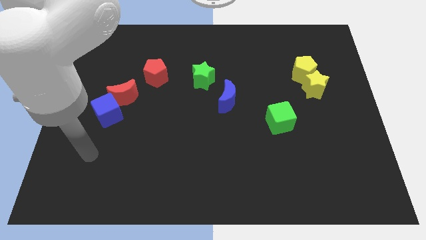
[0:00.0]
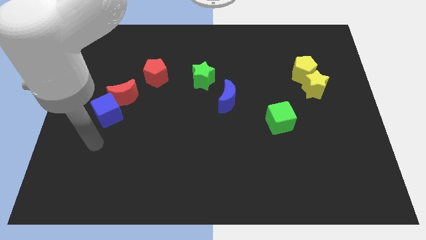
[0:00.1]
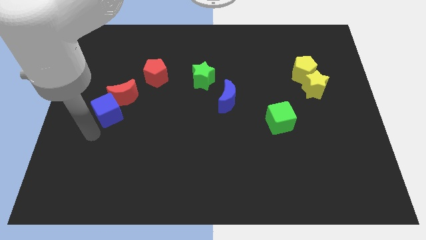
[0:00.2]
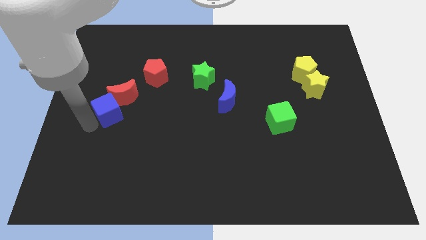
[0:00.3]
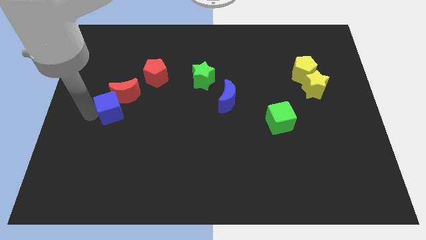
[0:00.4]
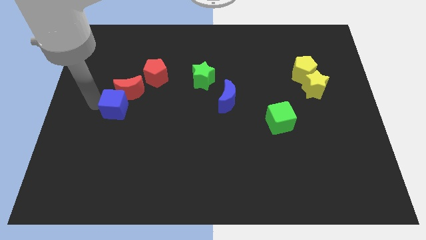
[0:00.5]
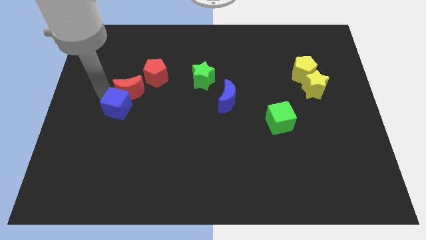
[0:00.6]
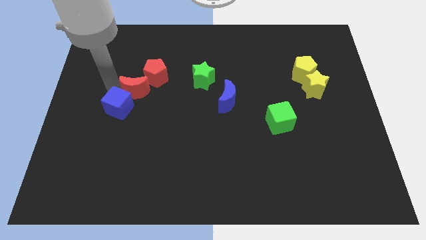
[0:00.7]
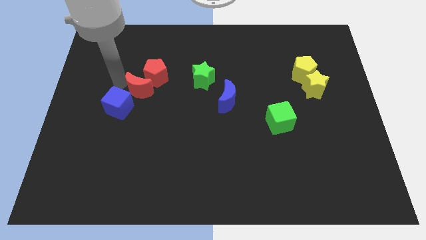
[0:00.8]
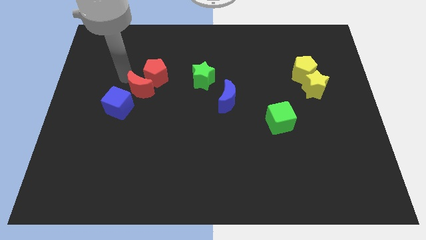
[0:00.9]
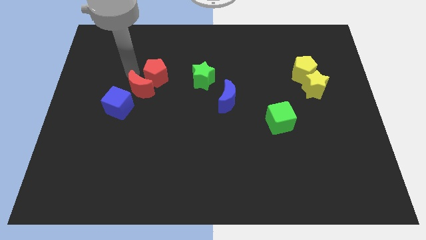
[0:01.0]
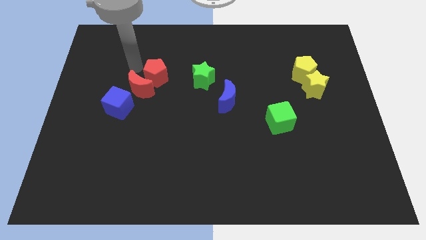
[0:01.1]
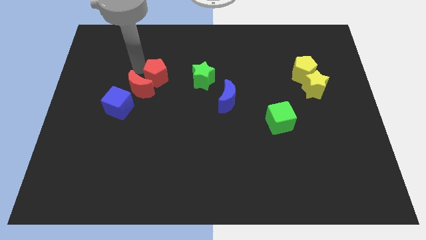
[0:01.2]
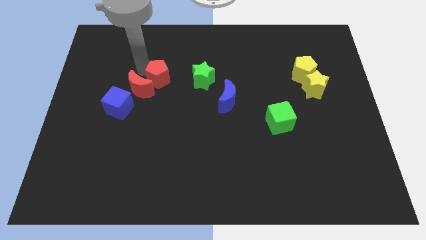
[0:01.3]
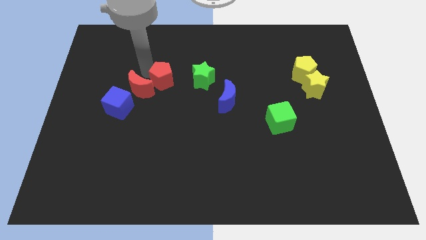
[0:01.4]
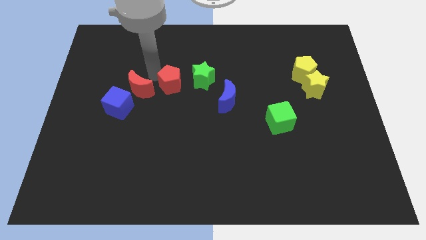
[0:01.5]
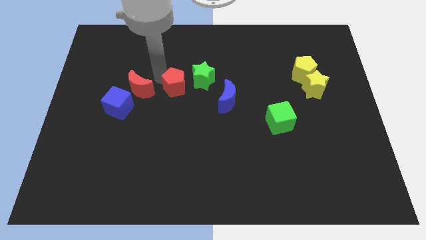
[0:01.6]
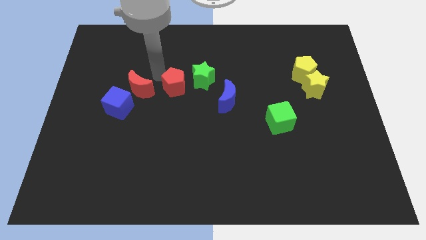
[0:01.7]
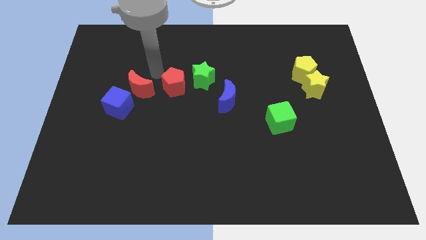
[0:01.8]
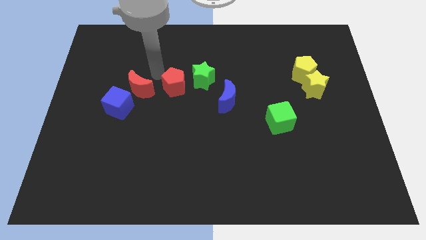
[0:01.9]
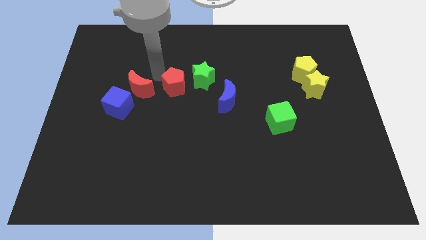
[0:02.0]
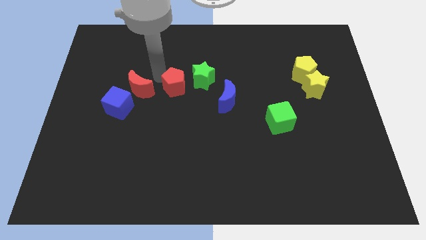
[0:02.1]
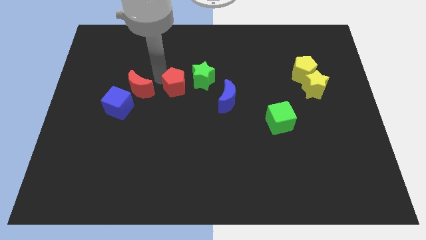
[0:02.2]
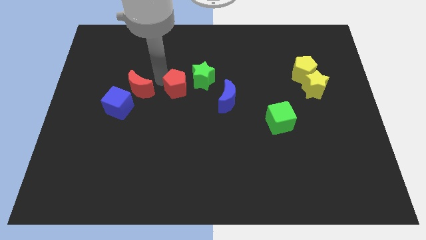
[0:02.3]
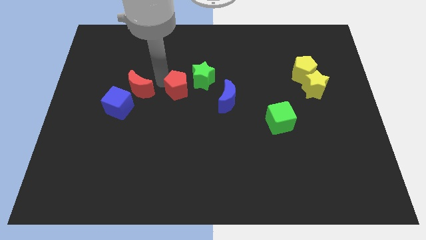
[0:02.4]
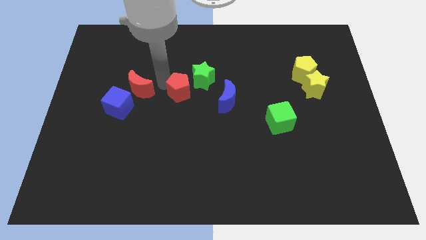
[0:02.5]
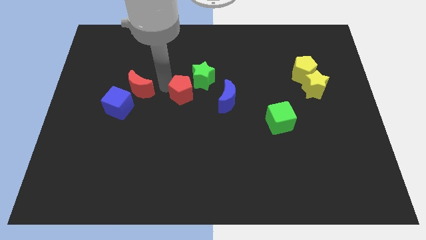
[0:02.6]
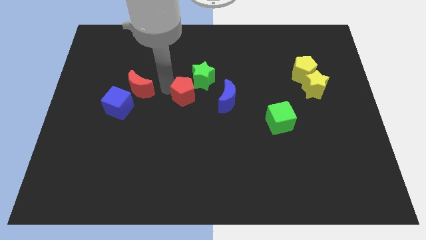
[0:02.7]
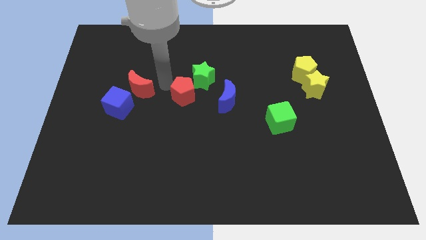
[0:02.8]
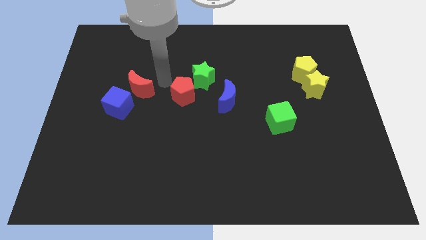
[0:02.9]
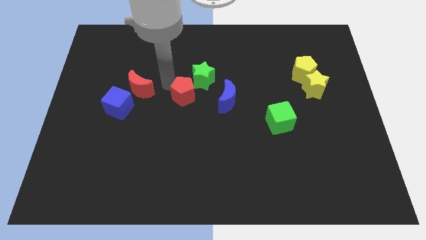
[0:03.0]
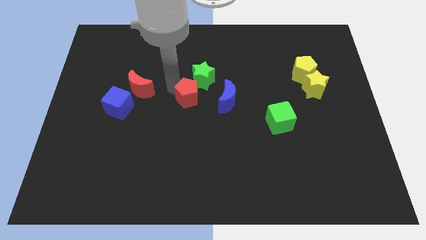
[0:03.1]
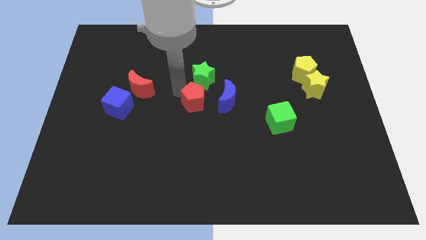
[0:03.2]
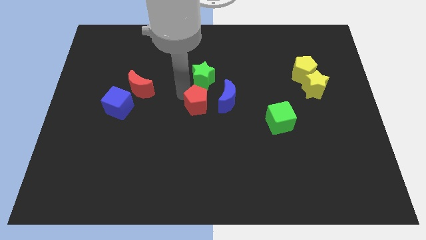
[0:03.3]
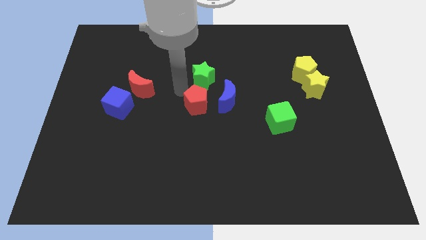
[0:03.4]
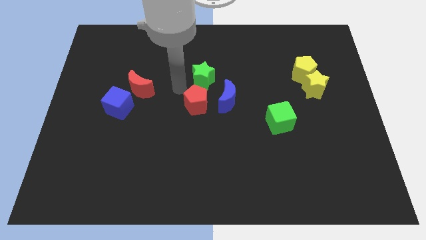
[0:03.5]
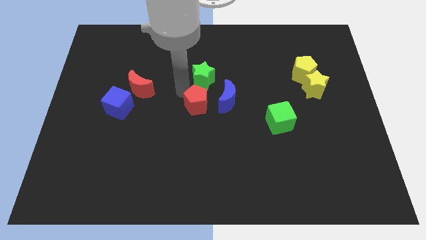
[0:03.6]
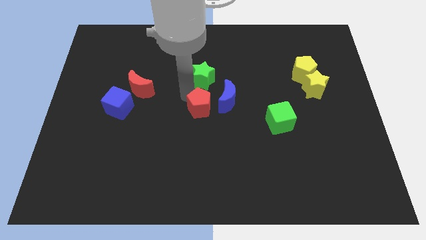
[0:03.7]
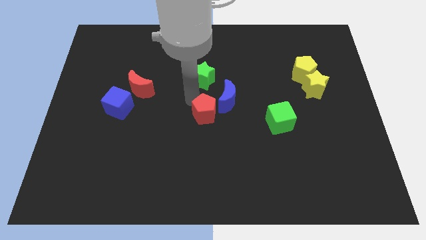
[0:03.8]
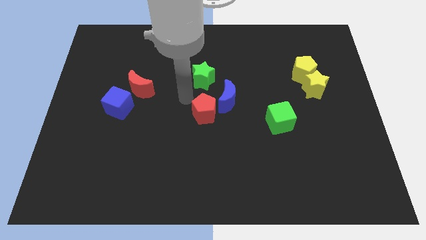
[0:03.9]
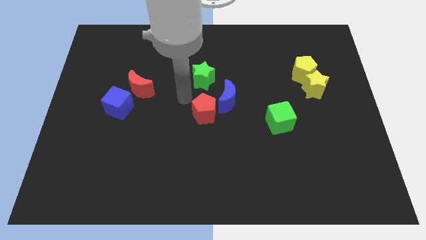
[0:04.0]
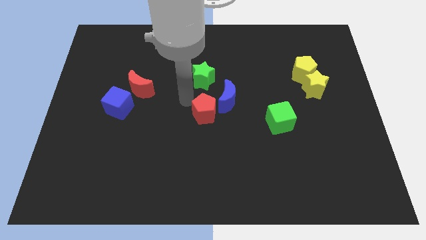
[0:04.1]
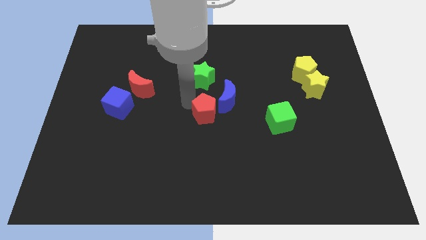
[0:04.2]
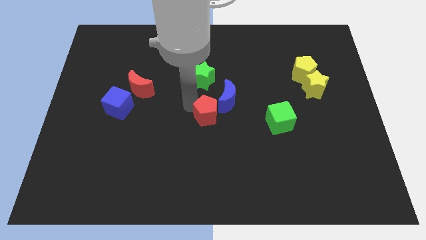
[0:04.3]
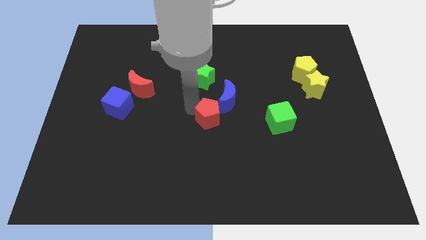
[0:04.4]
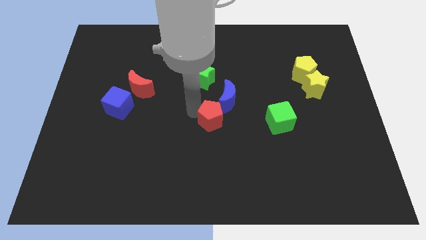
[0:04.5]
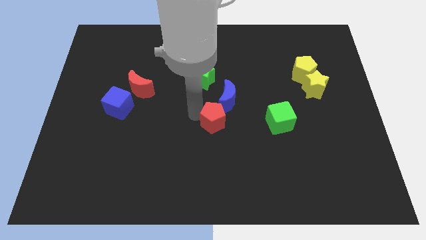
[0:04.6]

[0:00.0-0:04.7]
push the red pentagon diagonally downwards and to the right

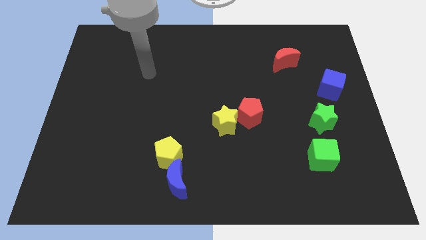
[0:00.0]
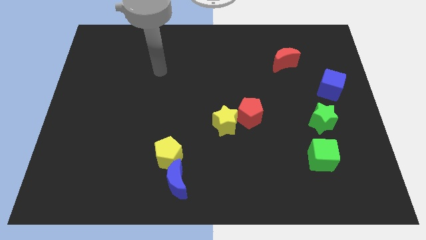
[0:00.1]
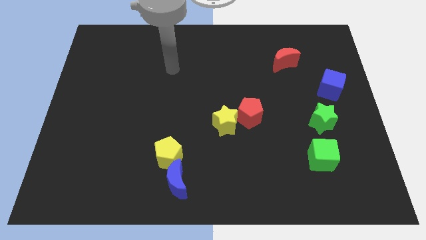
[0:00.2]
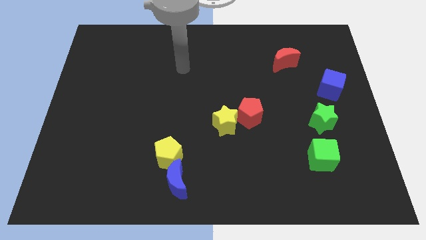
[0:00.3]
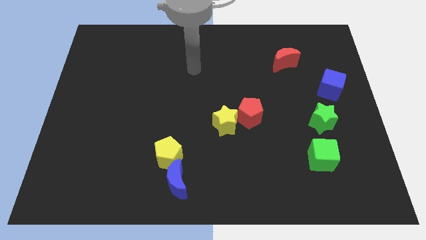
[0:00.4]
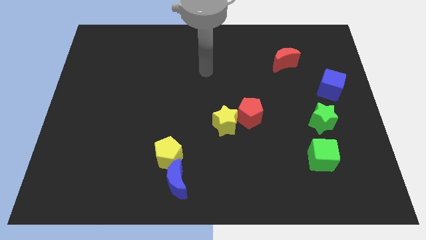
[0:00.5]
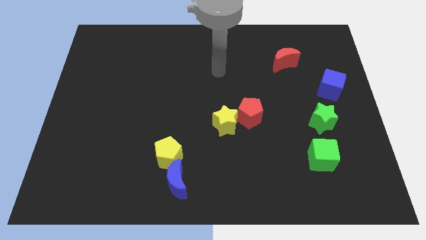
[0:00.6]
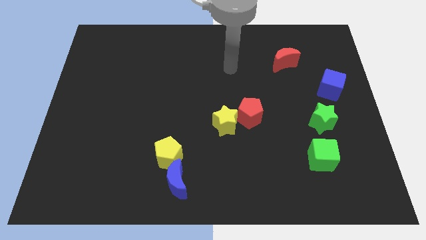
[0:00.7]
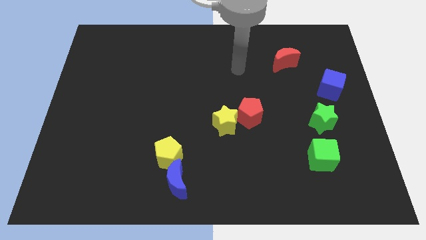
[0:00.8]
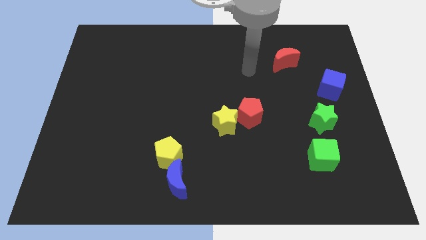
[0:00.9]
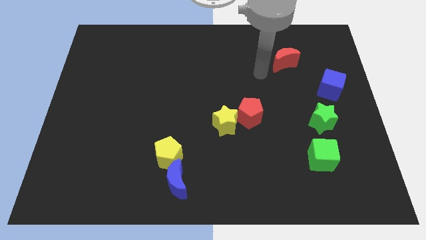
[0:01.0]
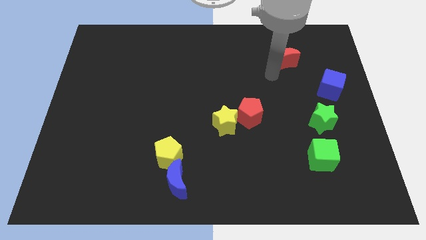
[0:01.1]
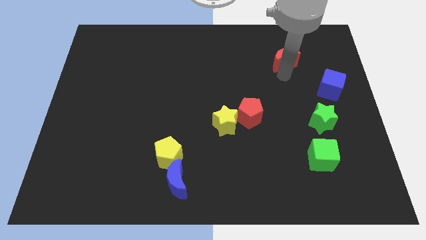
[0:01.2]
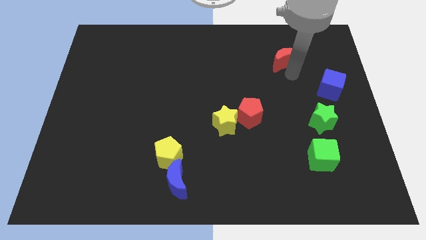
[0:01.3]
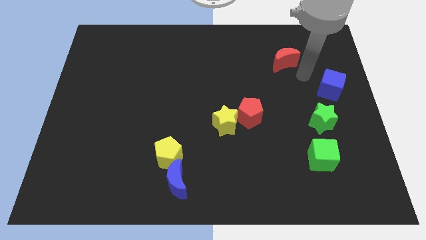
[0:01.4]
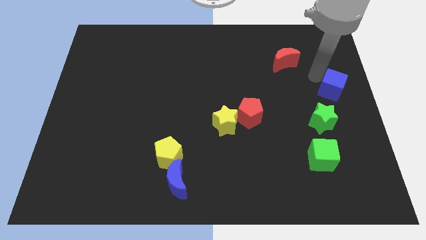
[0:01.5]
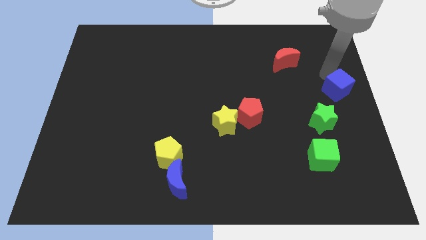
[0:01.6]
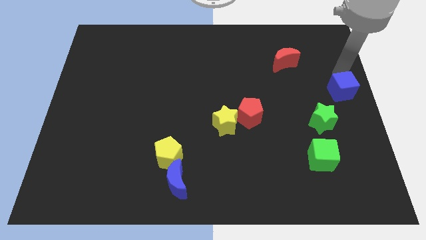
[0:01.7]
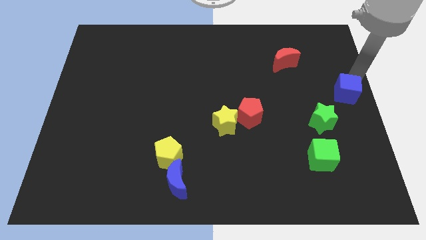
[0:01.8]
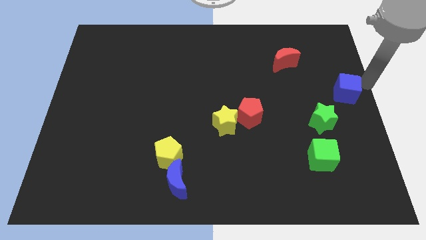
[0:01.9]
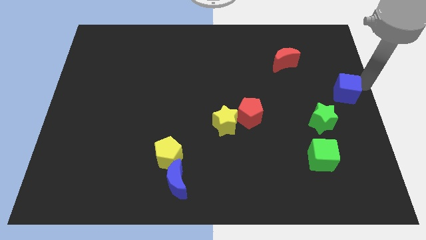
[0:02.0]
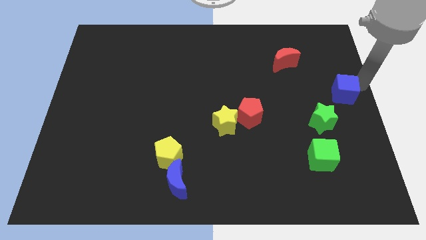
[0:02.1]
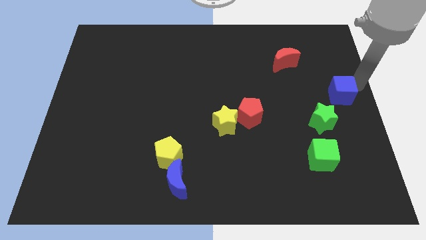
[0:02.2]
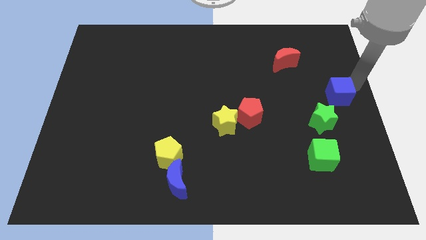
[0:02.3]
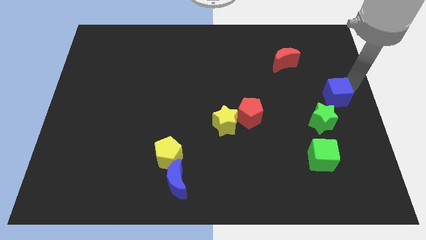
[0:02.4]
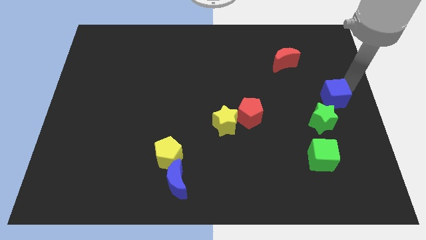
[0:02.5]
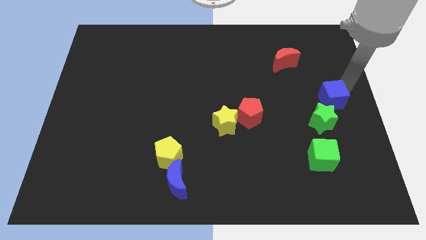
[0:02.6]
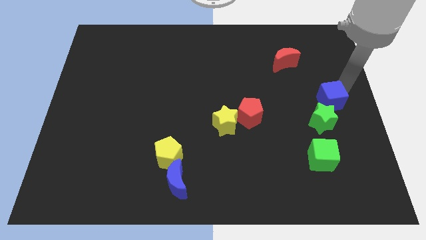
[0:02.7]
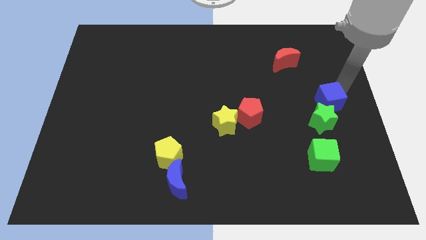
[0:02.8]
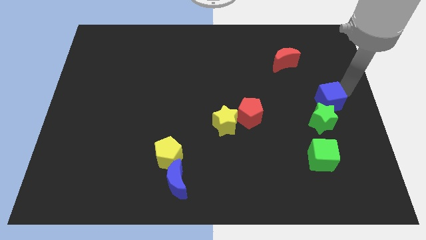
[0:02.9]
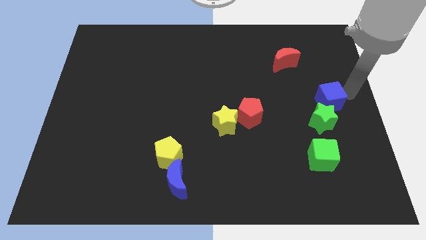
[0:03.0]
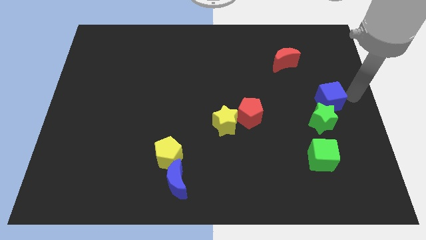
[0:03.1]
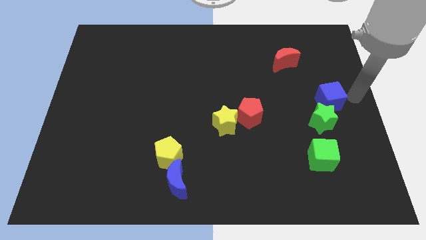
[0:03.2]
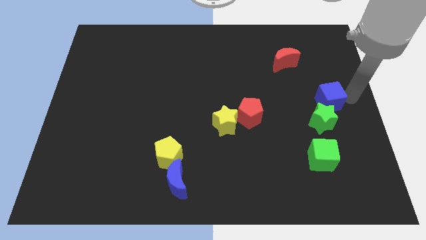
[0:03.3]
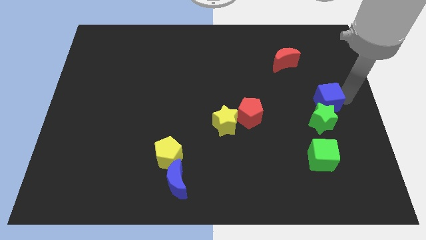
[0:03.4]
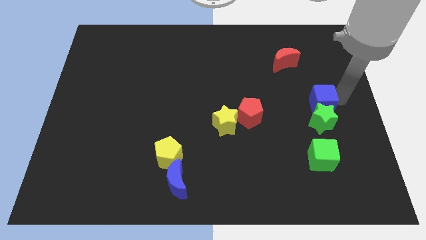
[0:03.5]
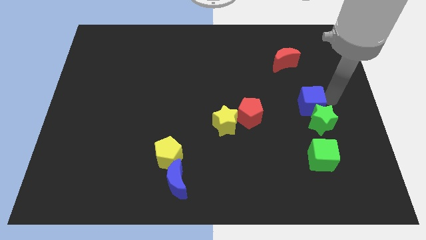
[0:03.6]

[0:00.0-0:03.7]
move the blue cube down and to the left diagonally a little
